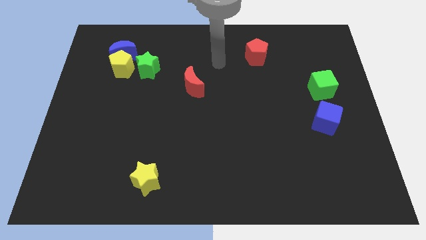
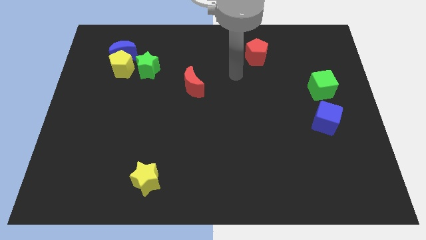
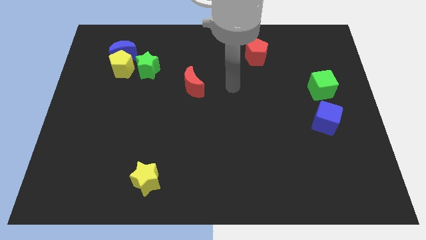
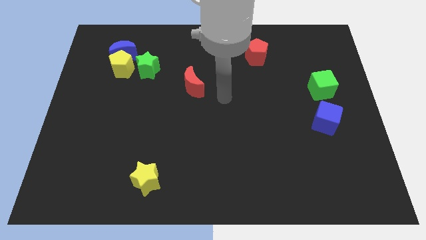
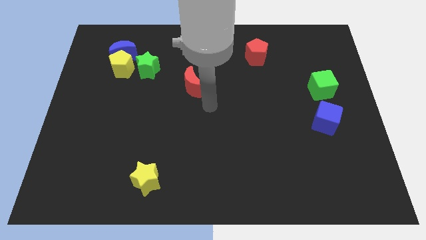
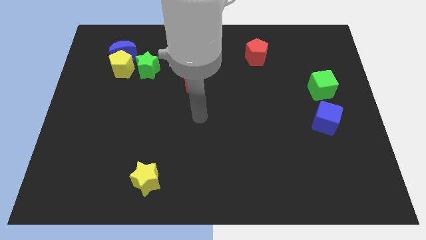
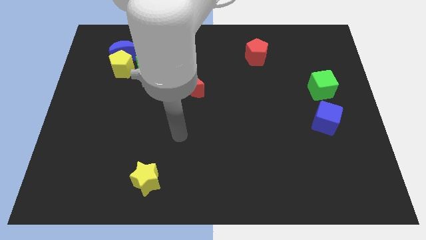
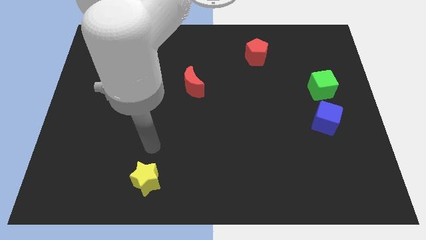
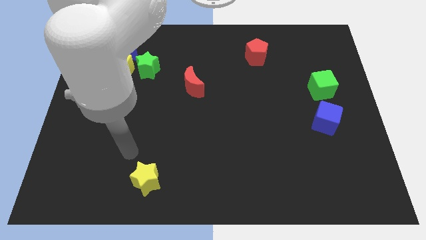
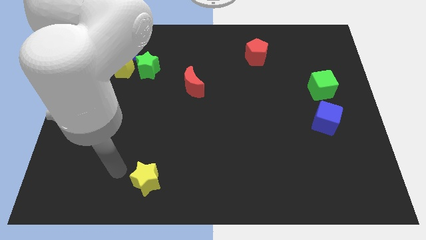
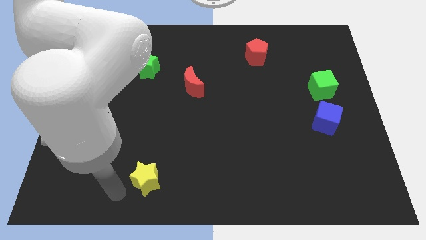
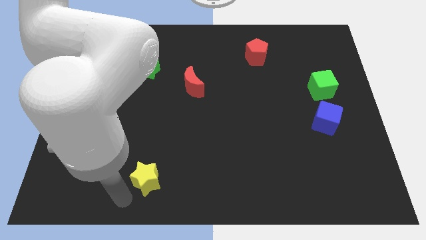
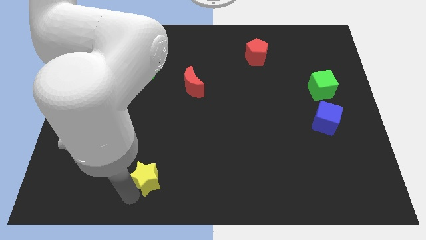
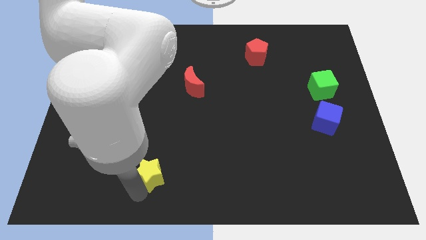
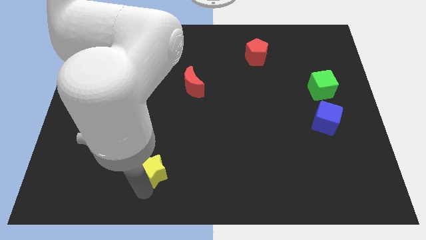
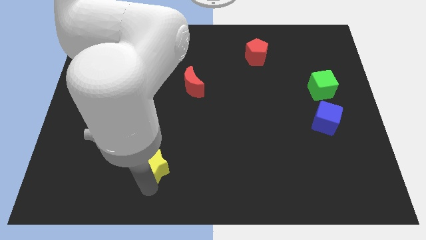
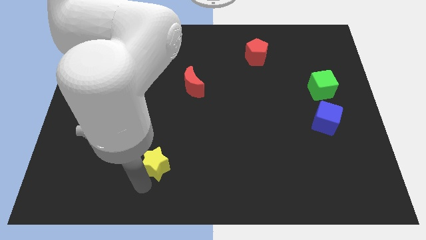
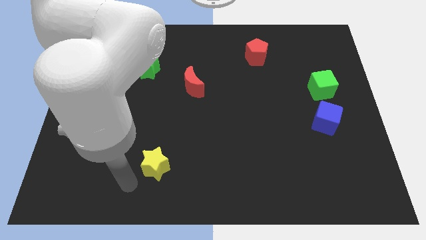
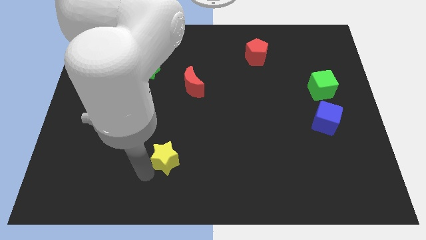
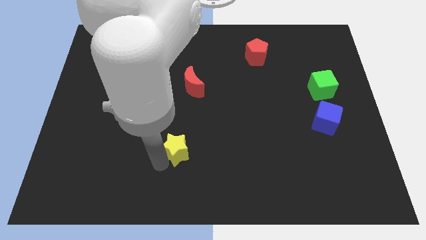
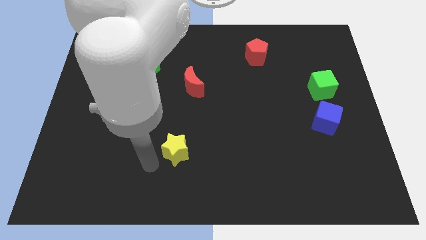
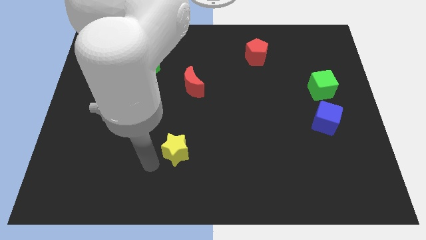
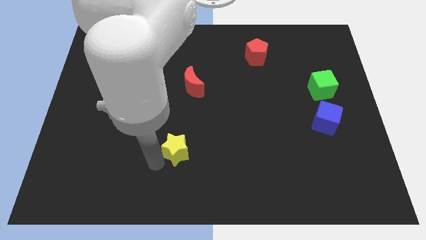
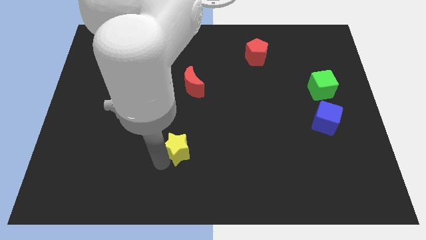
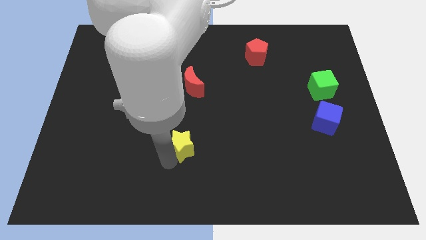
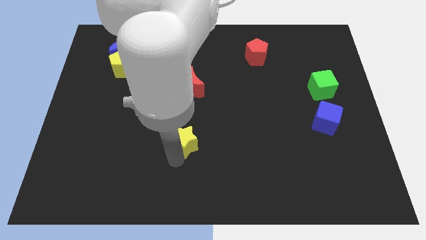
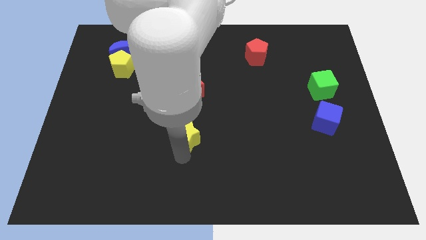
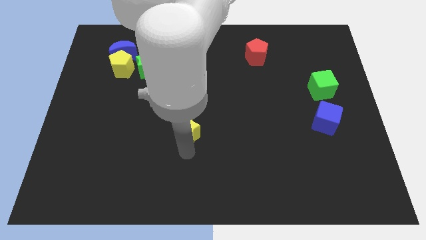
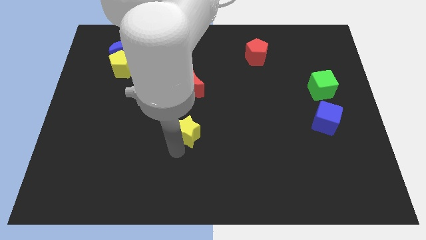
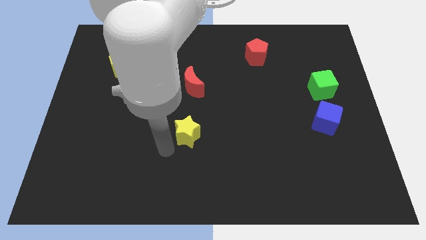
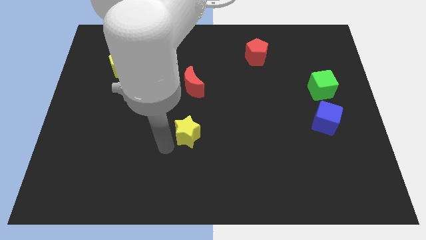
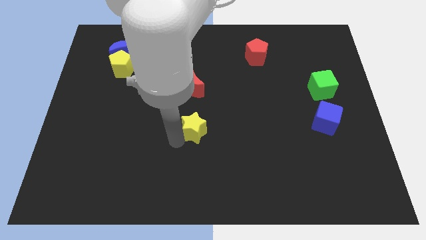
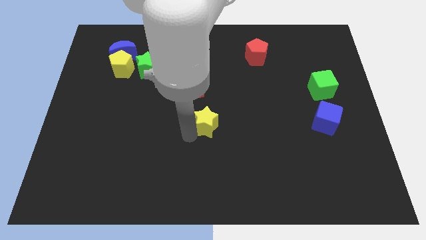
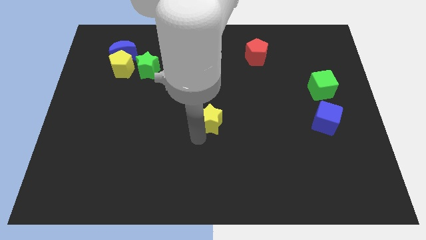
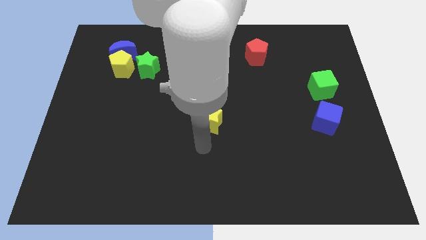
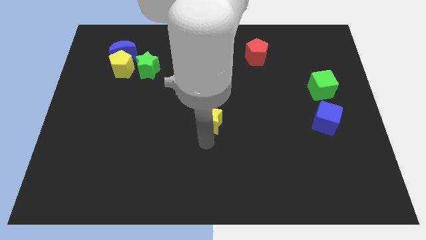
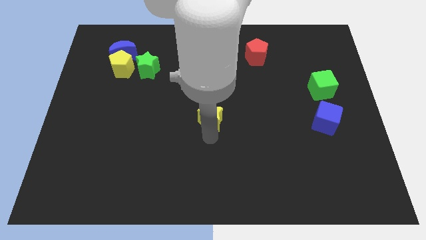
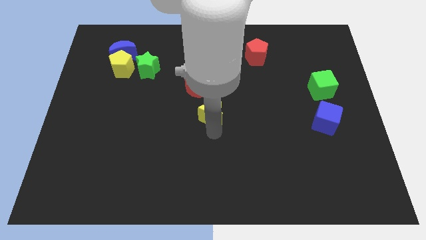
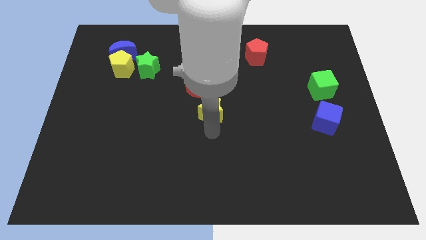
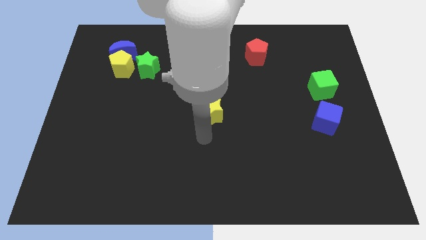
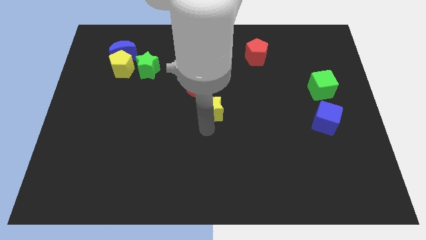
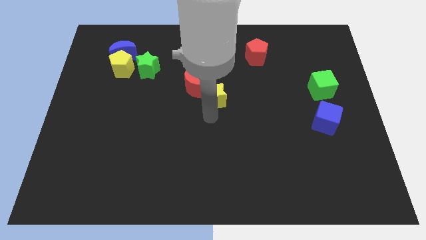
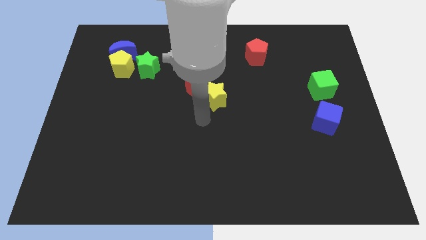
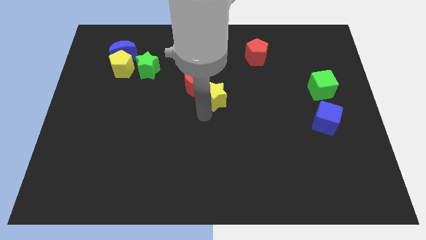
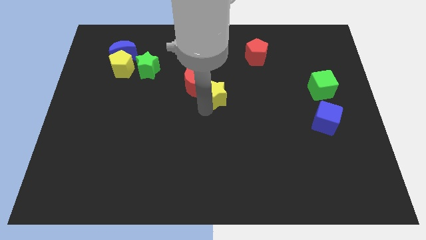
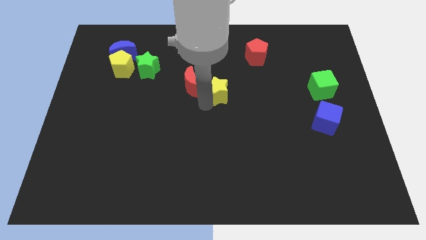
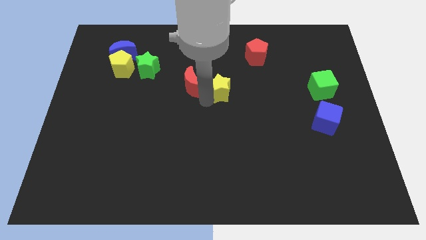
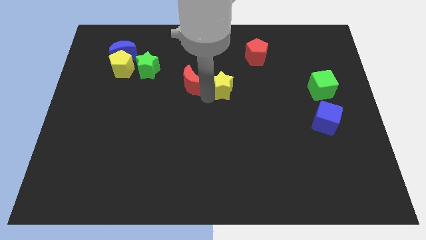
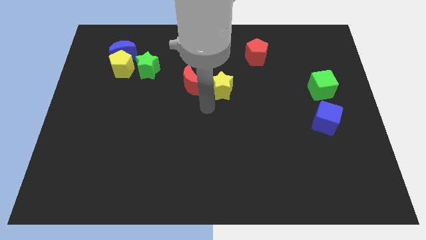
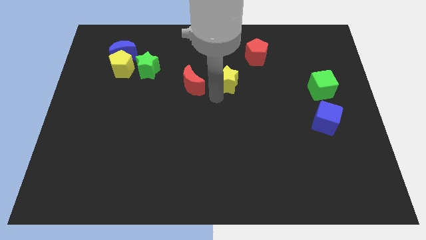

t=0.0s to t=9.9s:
move the yellow star to the bottom left of the red pentagon

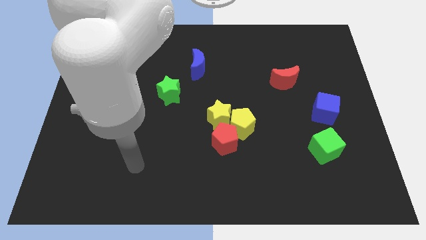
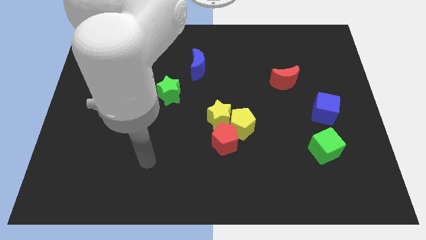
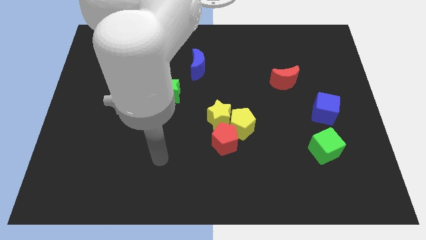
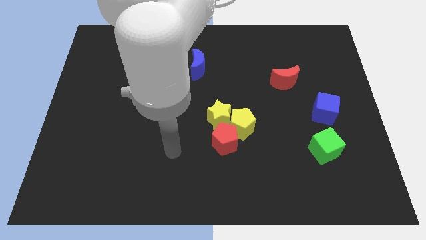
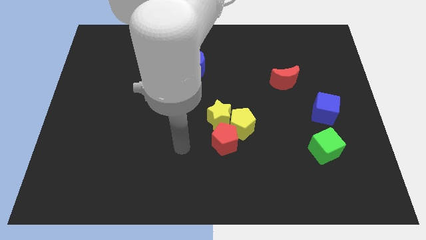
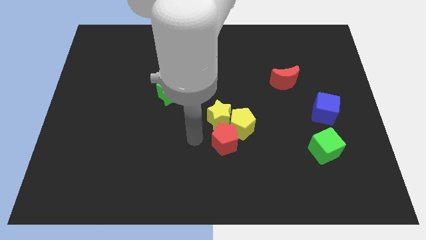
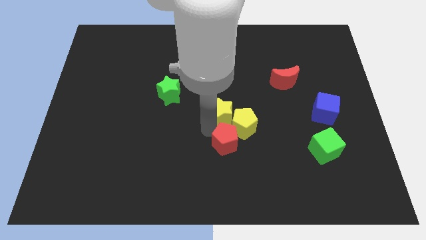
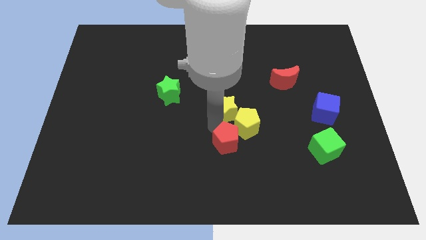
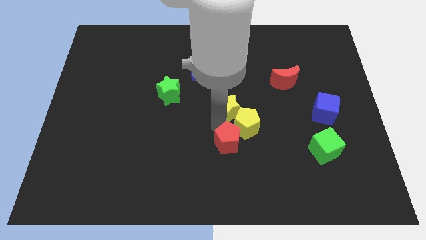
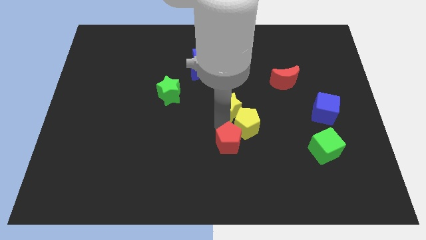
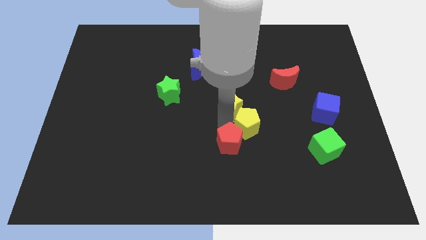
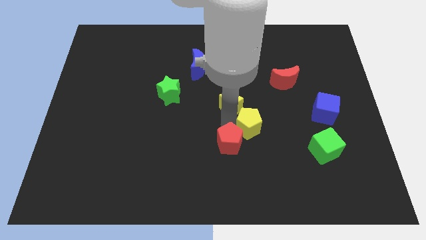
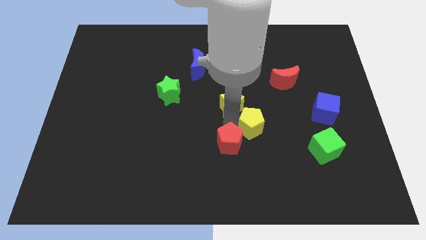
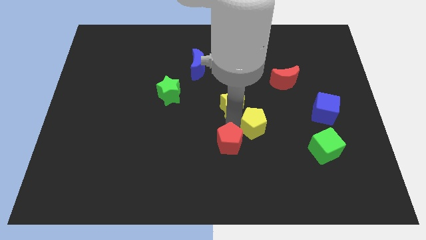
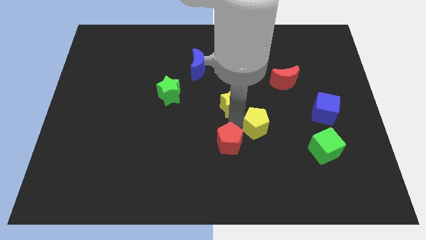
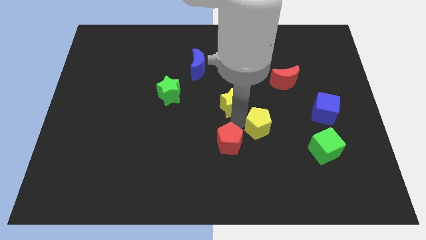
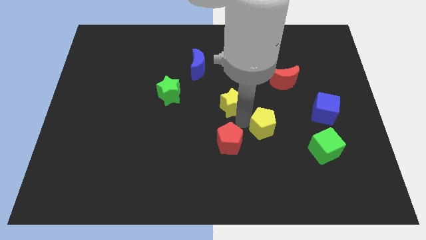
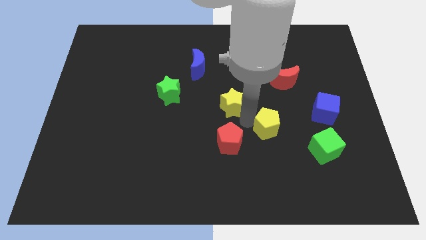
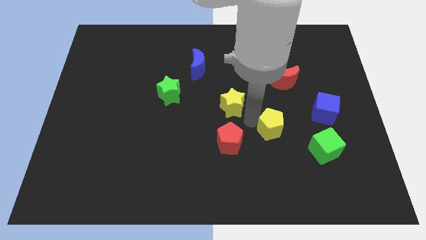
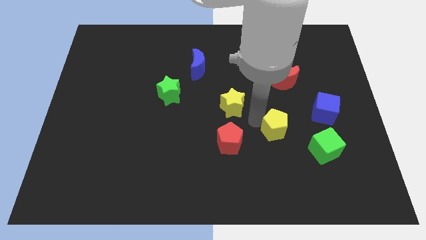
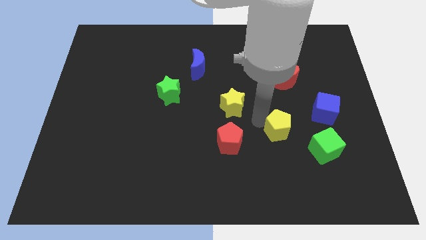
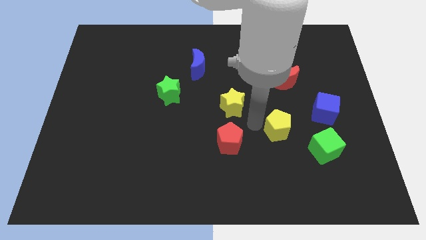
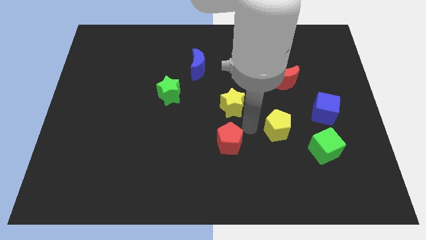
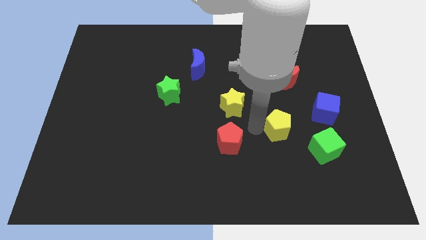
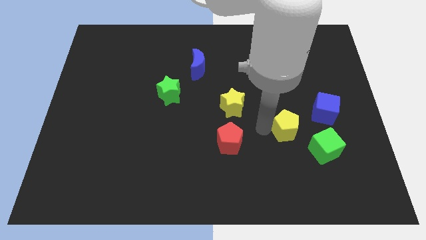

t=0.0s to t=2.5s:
push the yellow pentagon to the bottom left of the blue cube

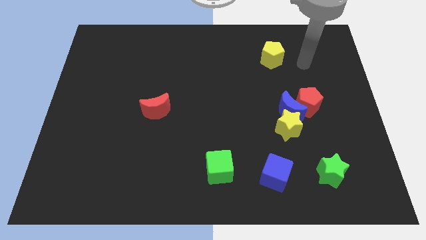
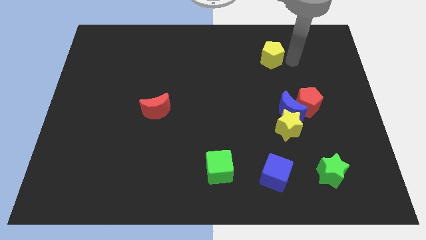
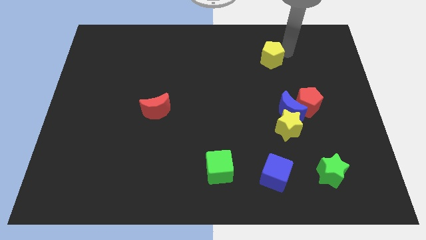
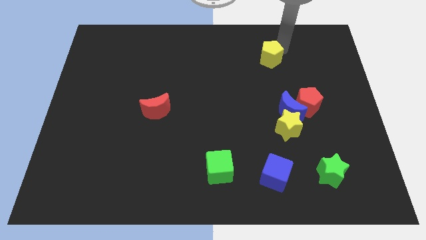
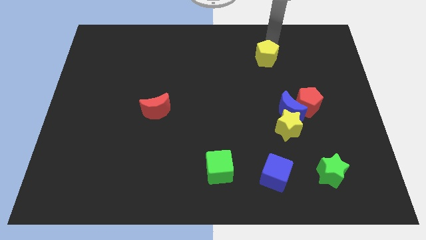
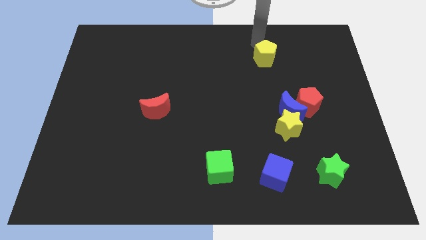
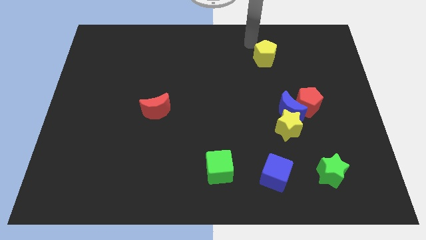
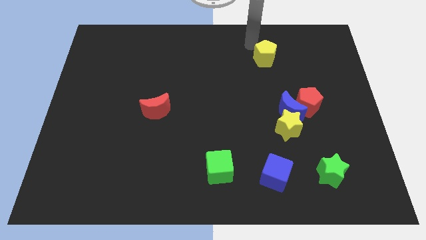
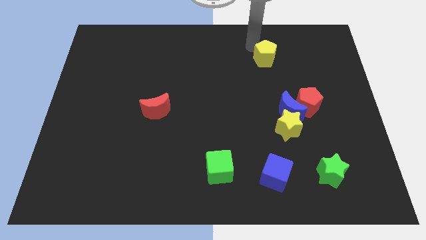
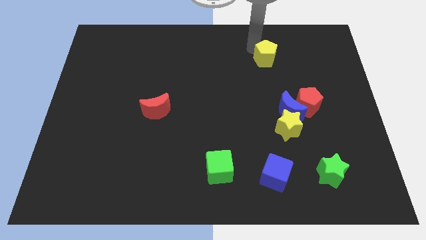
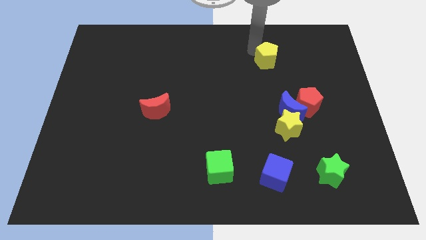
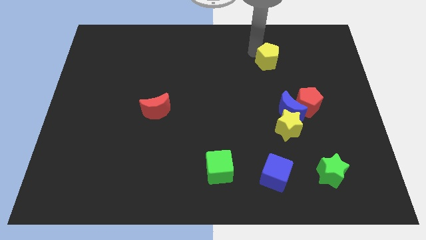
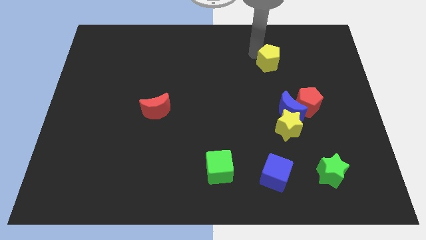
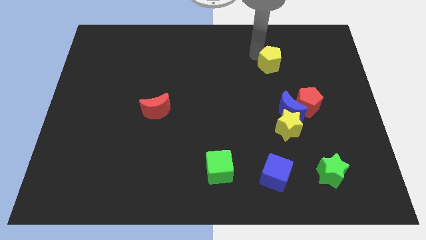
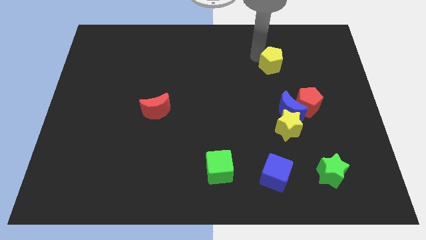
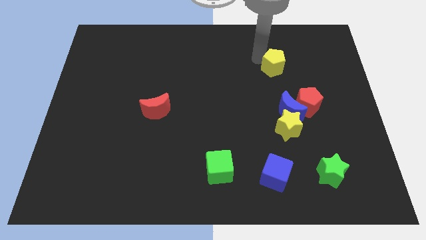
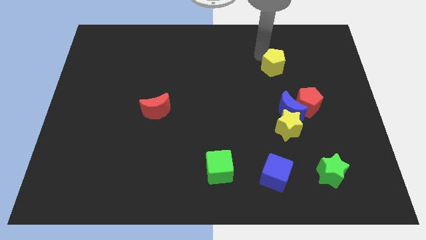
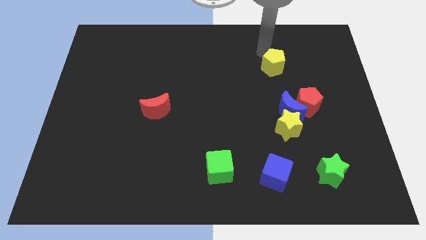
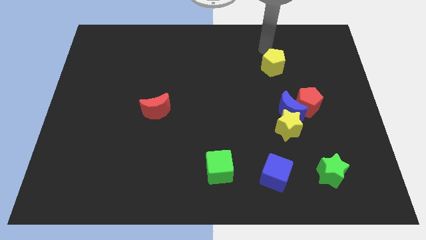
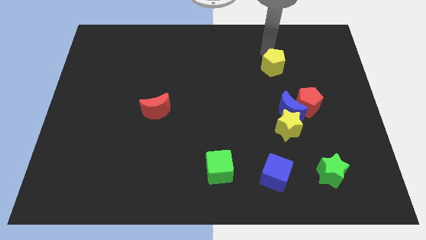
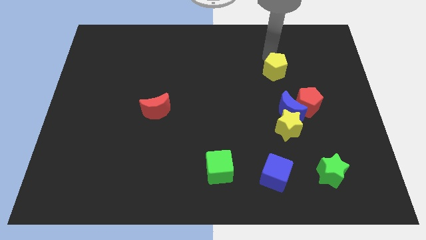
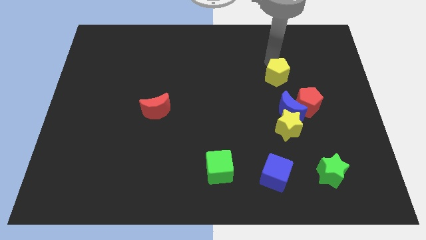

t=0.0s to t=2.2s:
push the yellow pentagon to the top left side of the red pentagon
